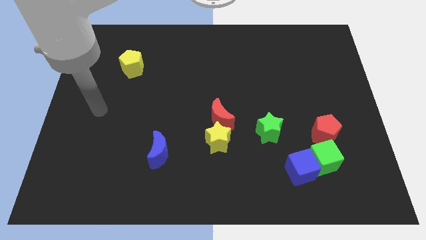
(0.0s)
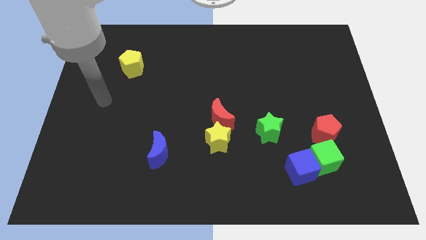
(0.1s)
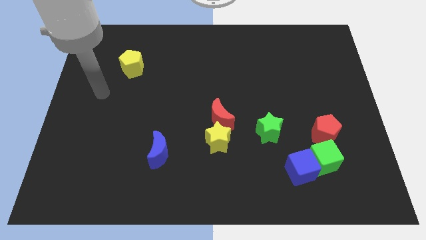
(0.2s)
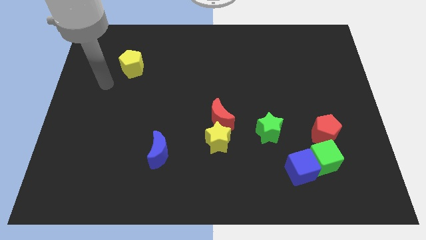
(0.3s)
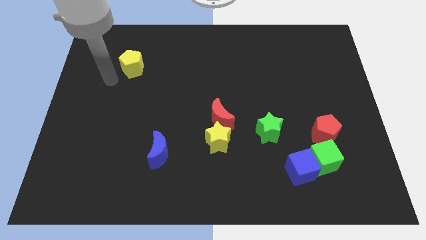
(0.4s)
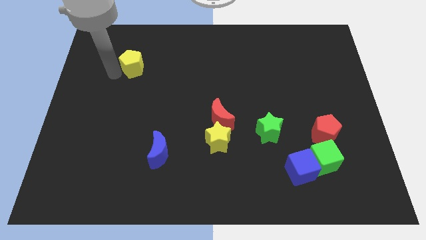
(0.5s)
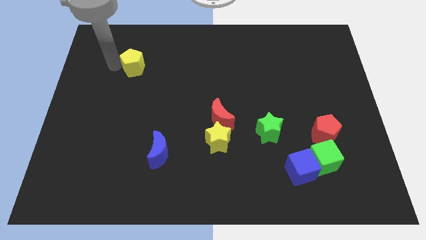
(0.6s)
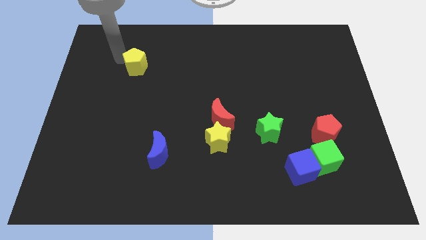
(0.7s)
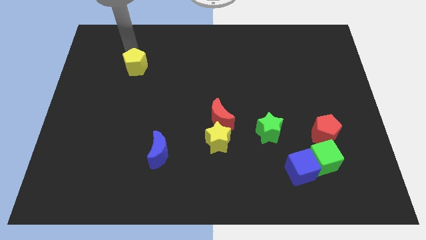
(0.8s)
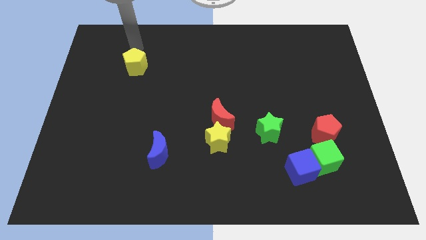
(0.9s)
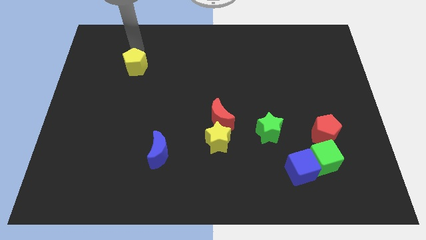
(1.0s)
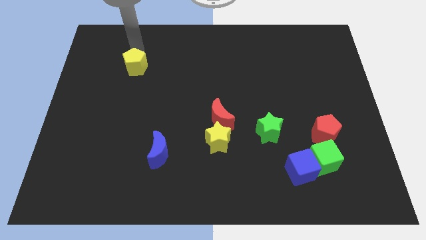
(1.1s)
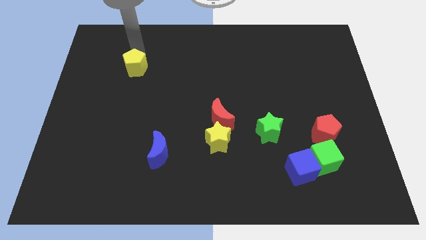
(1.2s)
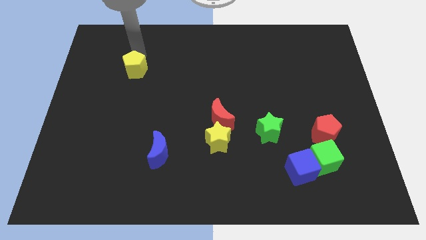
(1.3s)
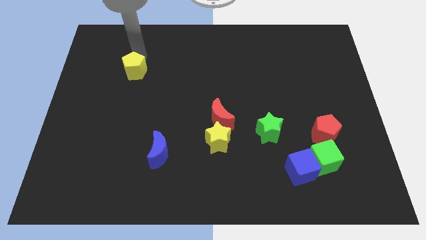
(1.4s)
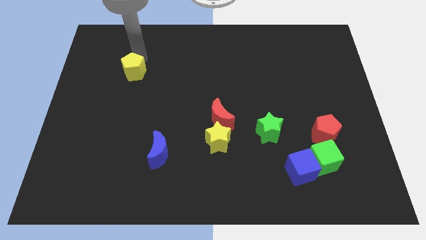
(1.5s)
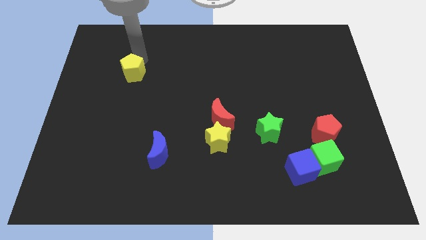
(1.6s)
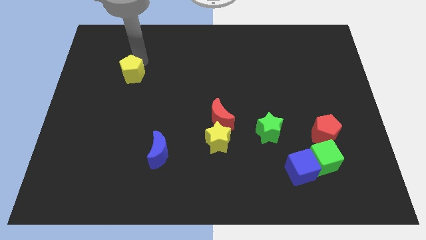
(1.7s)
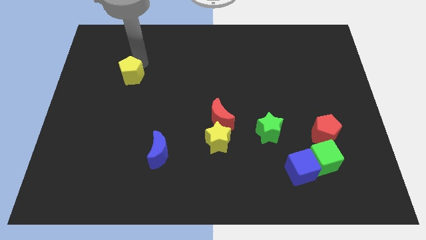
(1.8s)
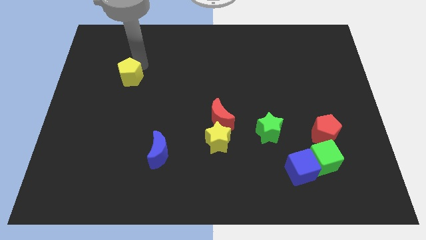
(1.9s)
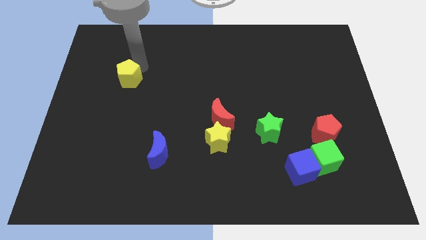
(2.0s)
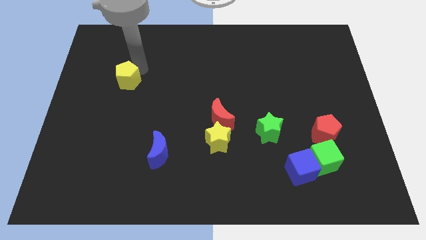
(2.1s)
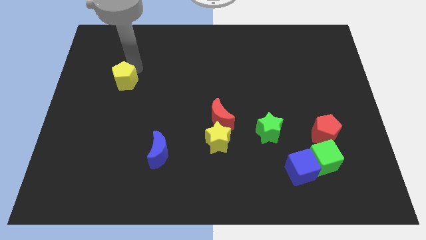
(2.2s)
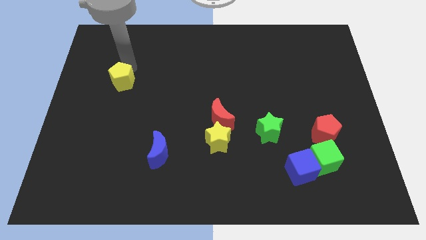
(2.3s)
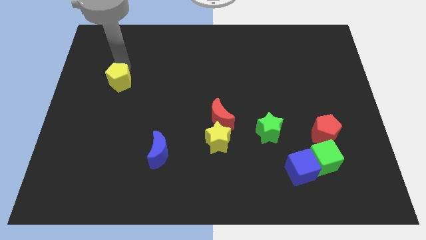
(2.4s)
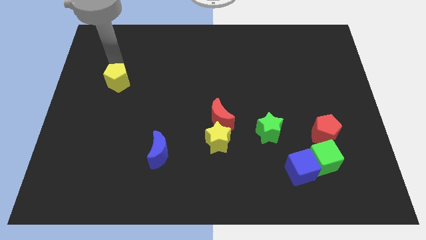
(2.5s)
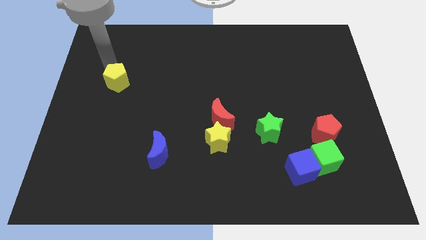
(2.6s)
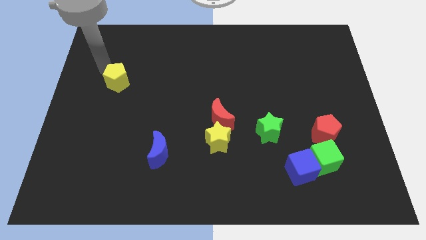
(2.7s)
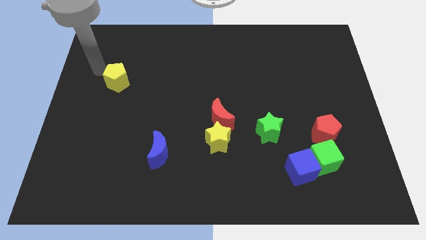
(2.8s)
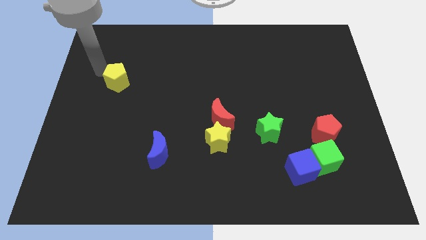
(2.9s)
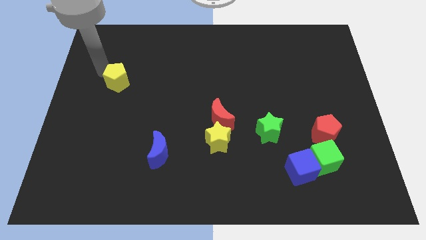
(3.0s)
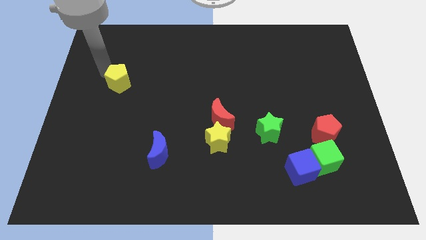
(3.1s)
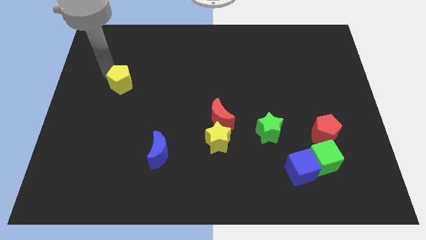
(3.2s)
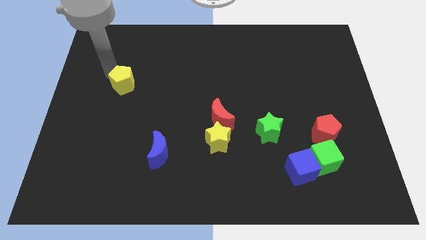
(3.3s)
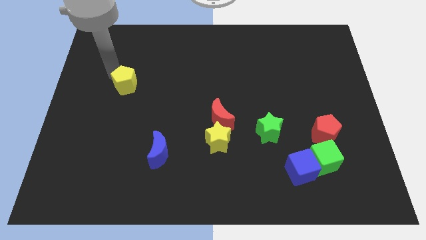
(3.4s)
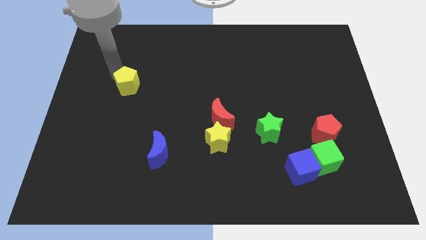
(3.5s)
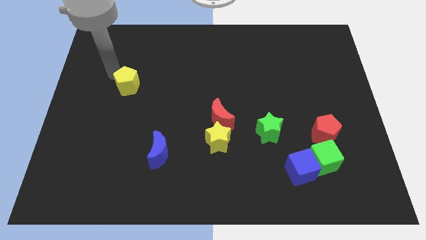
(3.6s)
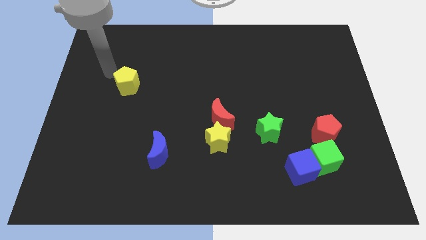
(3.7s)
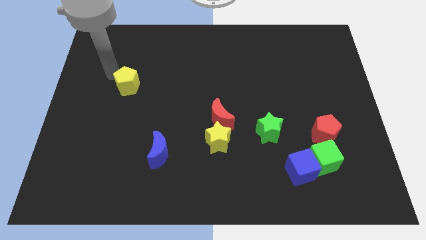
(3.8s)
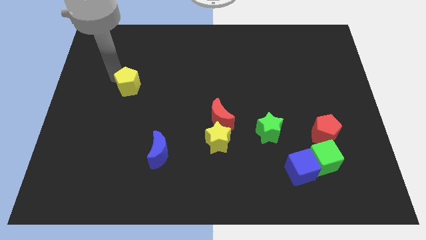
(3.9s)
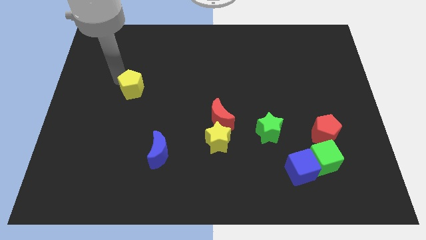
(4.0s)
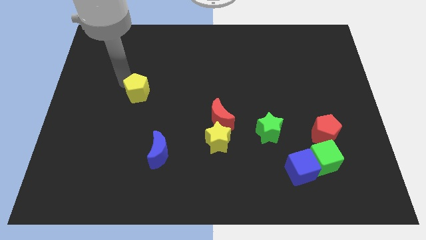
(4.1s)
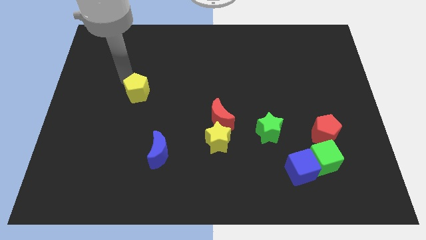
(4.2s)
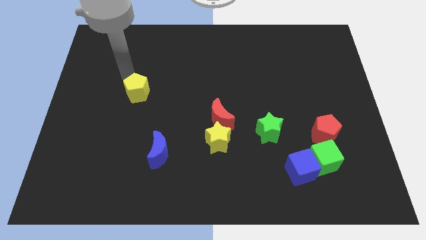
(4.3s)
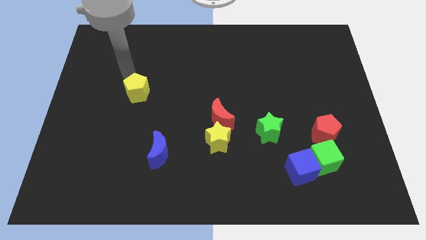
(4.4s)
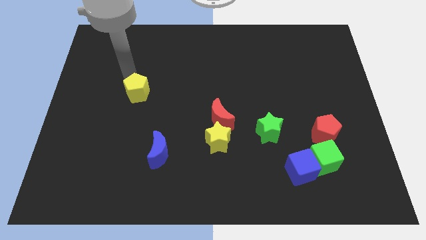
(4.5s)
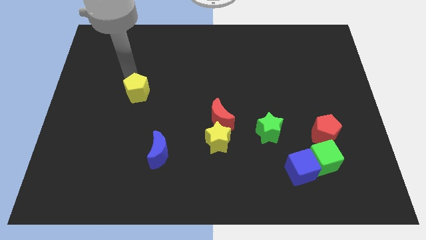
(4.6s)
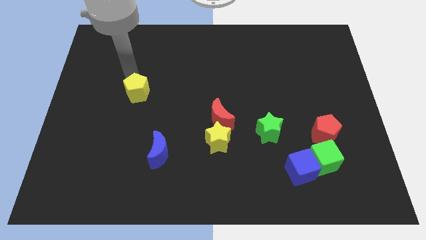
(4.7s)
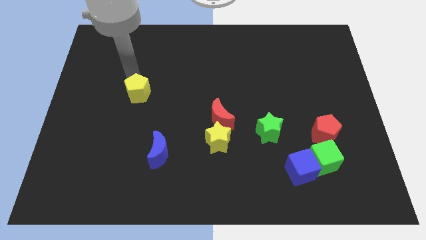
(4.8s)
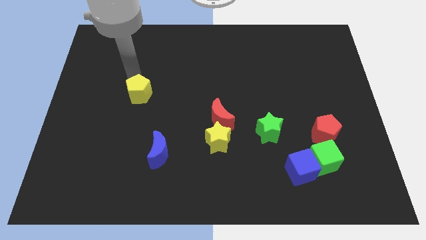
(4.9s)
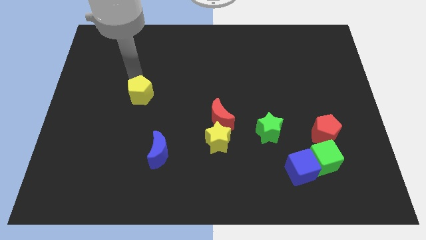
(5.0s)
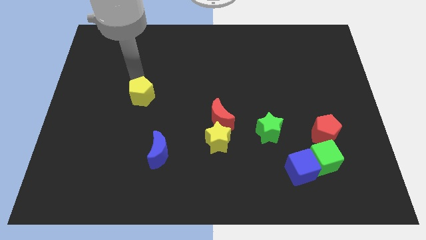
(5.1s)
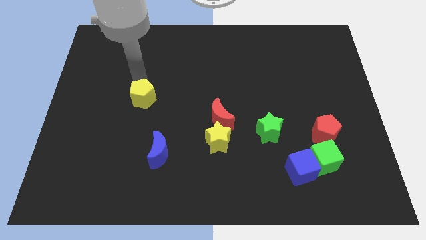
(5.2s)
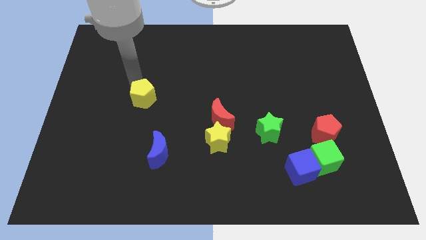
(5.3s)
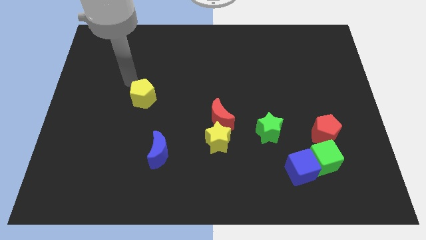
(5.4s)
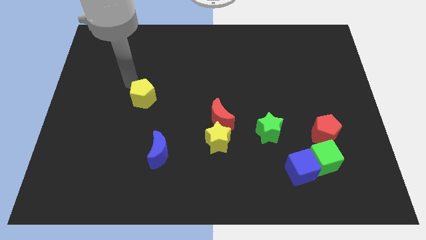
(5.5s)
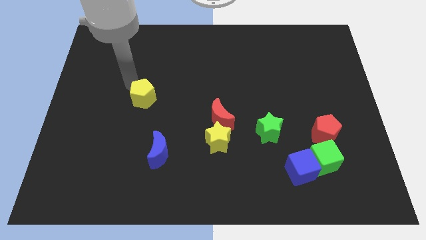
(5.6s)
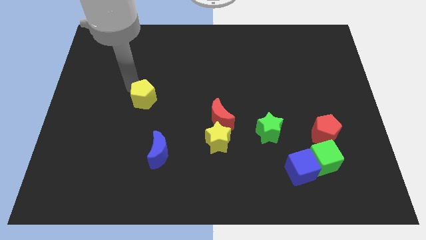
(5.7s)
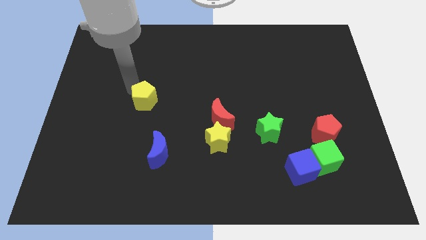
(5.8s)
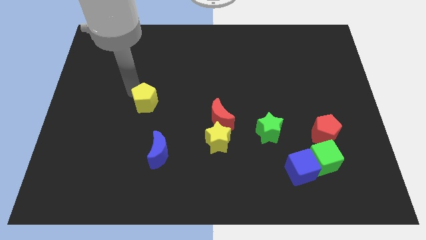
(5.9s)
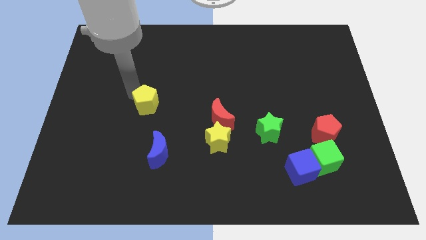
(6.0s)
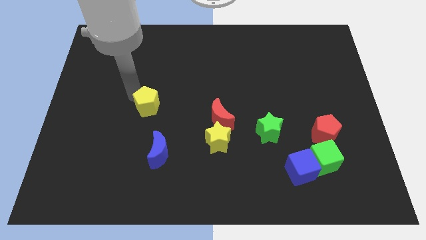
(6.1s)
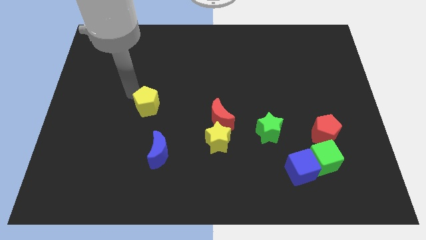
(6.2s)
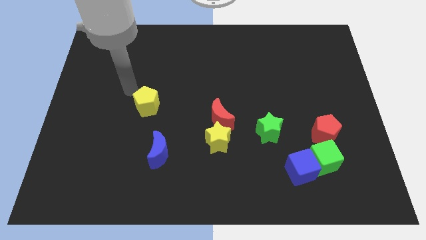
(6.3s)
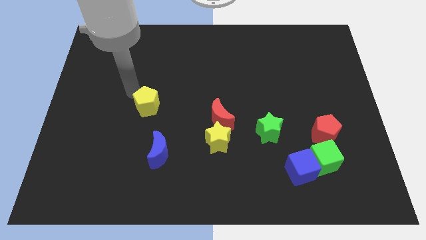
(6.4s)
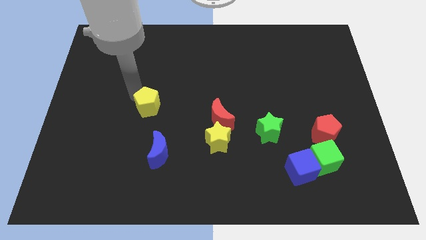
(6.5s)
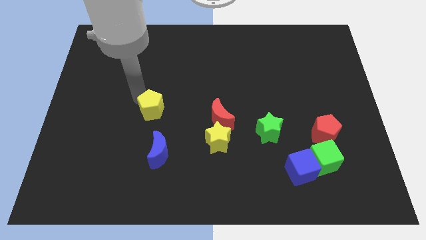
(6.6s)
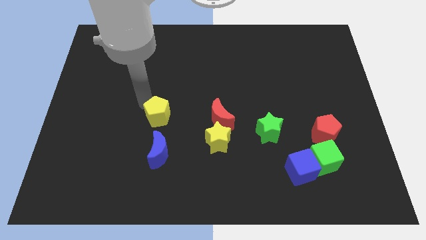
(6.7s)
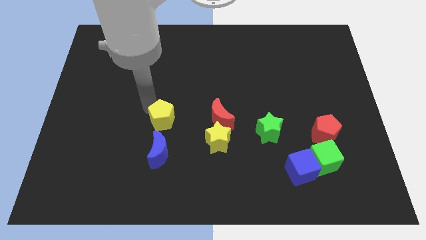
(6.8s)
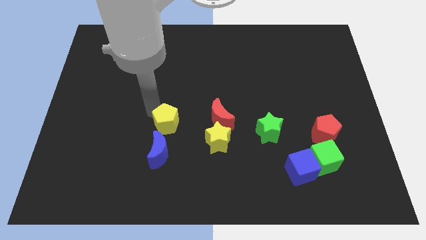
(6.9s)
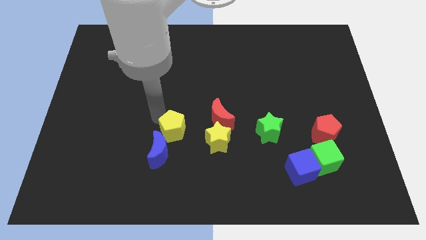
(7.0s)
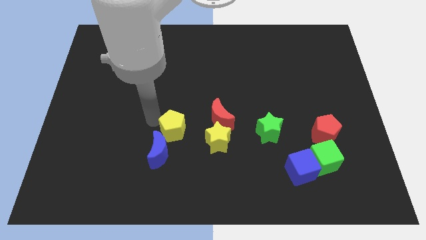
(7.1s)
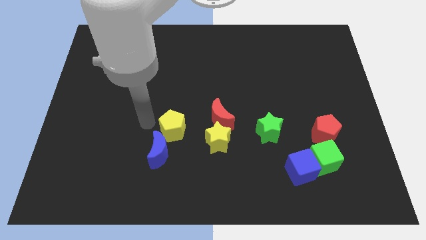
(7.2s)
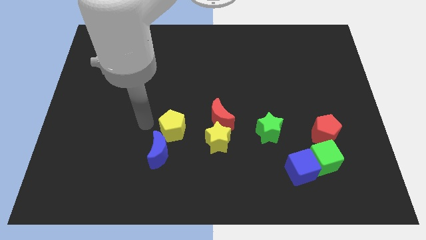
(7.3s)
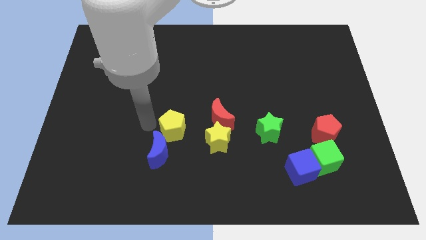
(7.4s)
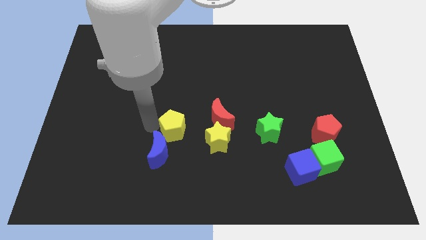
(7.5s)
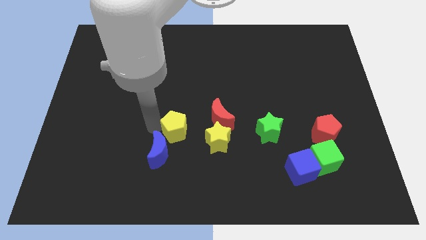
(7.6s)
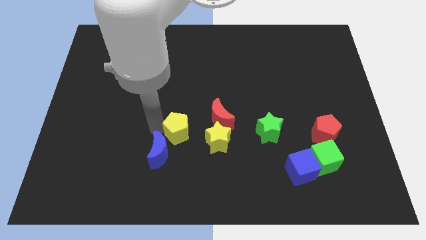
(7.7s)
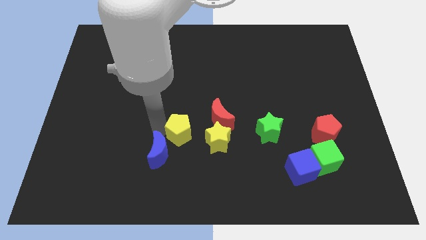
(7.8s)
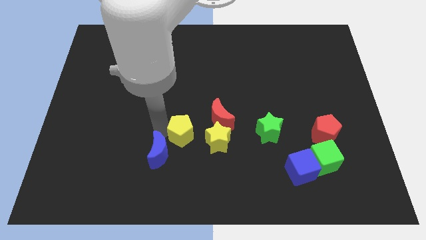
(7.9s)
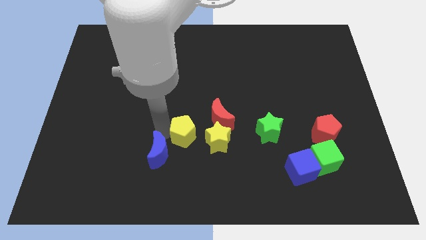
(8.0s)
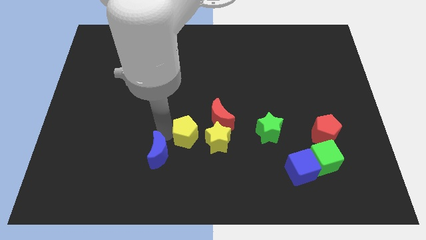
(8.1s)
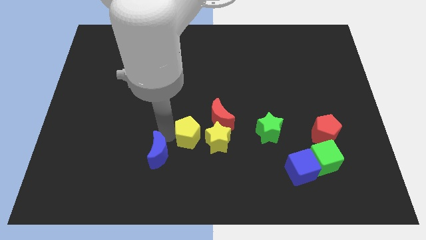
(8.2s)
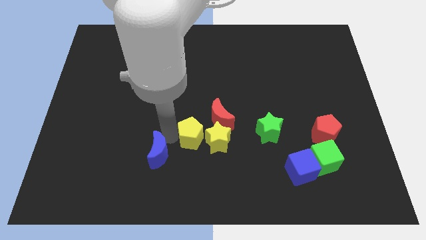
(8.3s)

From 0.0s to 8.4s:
move the yellow pentagon close to the yellow star
